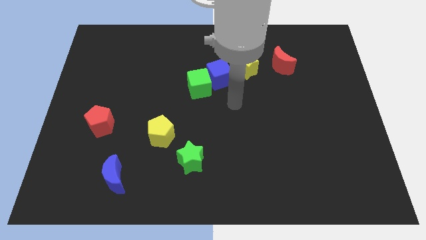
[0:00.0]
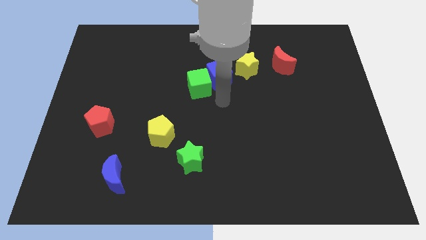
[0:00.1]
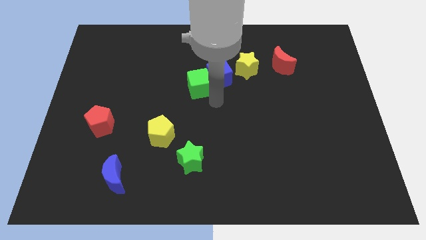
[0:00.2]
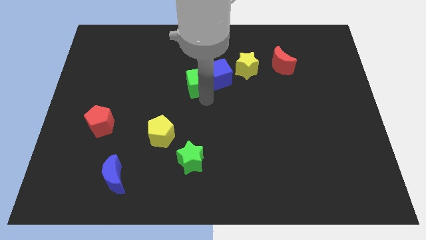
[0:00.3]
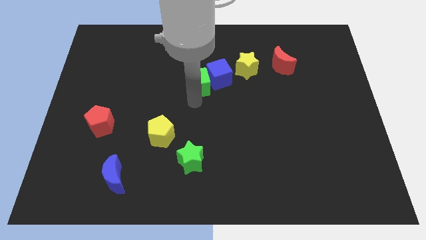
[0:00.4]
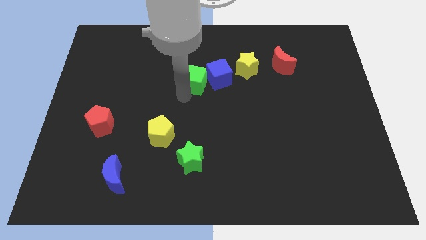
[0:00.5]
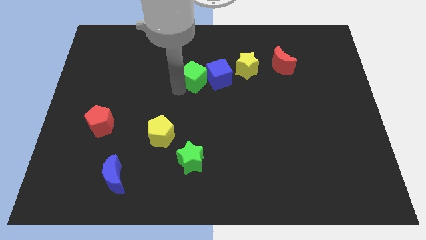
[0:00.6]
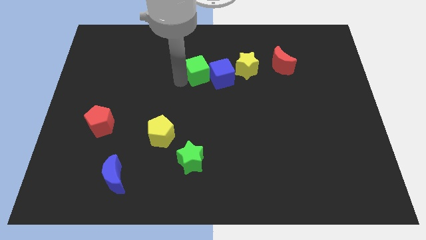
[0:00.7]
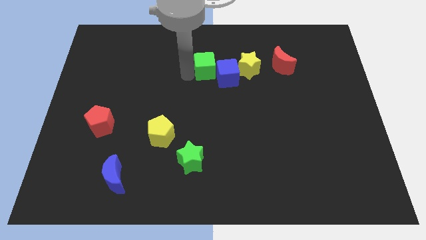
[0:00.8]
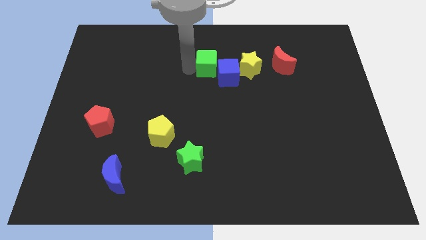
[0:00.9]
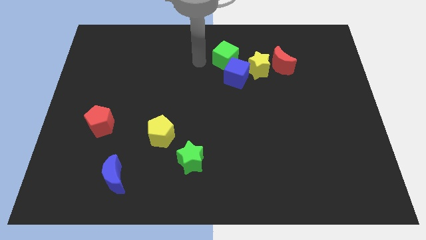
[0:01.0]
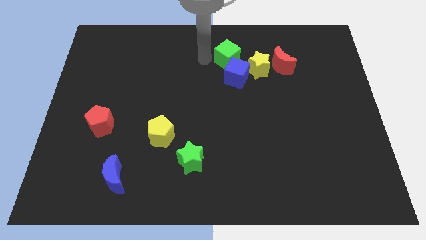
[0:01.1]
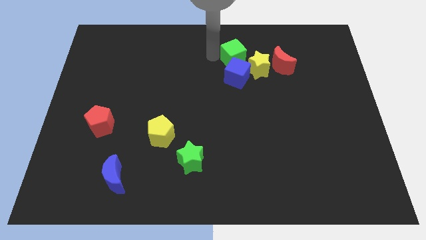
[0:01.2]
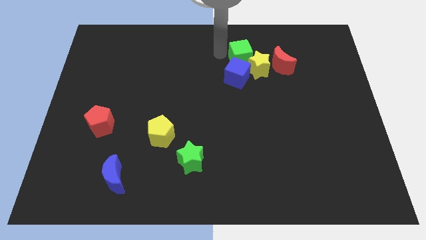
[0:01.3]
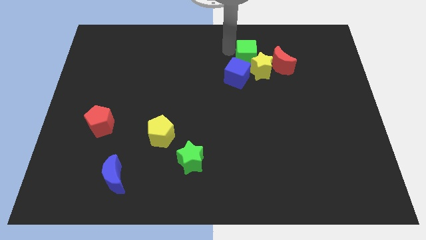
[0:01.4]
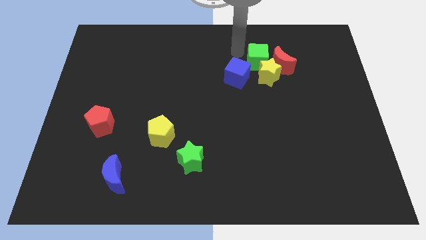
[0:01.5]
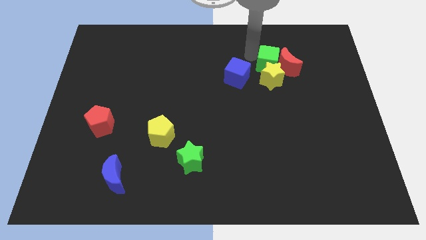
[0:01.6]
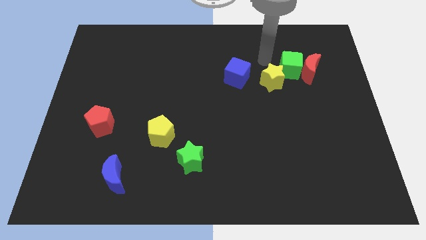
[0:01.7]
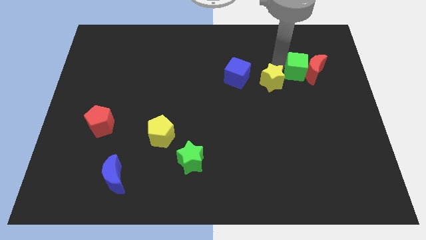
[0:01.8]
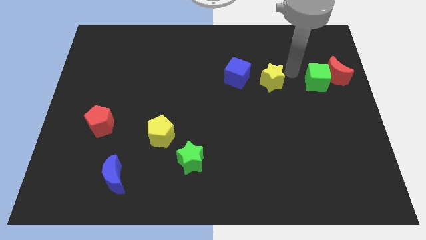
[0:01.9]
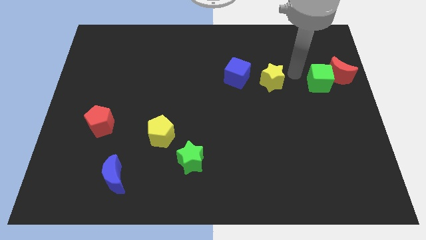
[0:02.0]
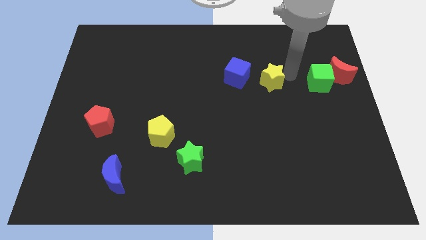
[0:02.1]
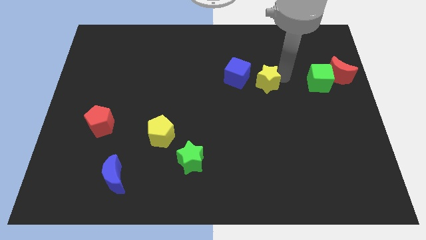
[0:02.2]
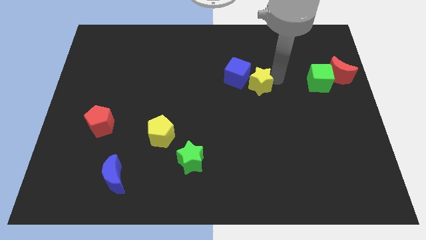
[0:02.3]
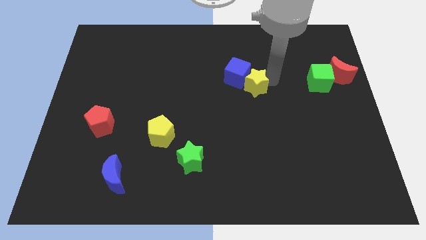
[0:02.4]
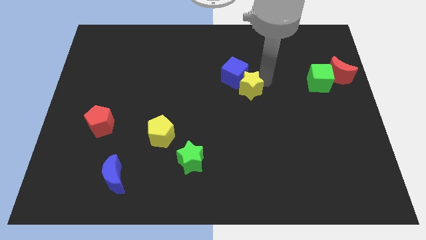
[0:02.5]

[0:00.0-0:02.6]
slightly move the yellow star down

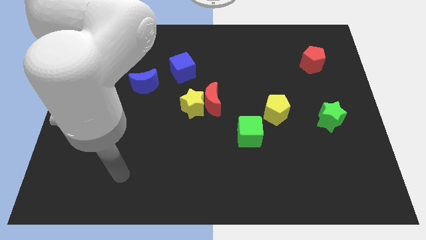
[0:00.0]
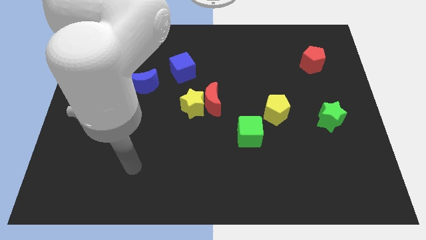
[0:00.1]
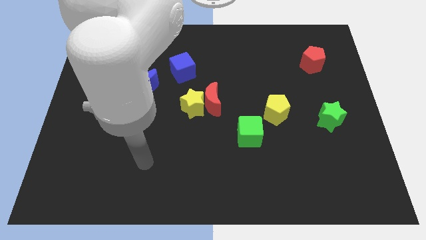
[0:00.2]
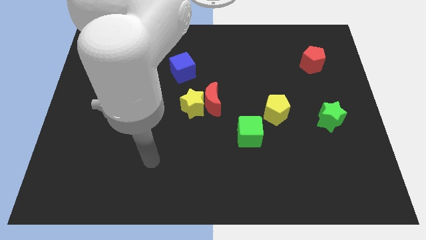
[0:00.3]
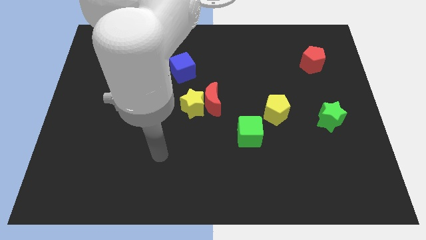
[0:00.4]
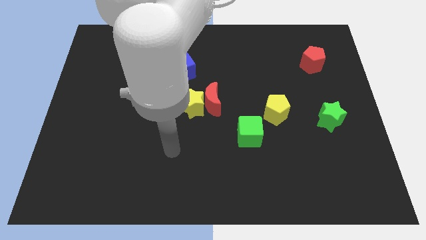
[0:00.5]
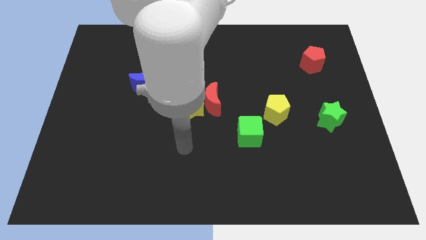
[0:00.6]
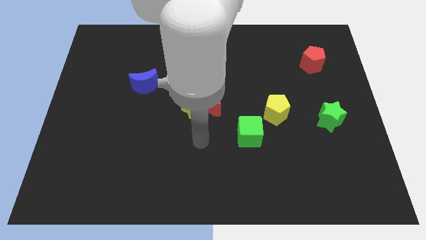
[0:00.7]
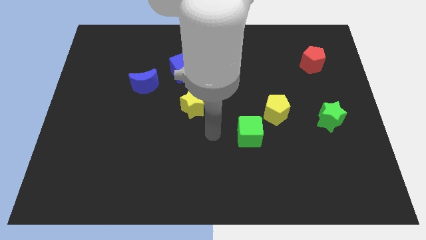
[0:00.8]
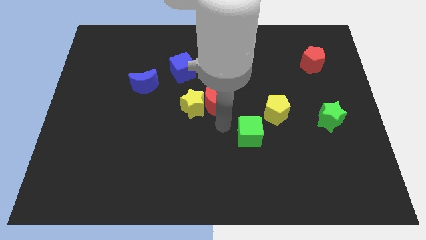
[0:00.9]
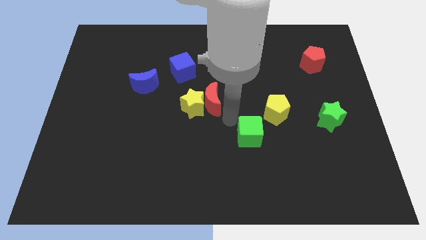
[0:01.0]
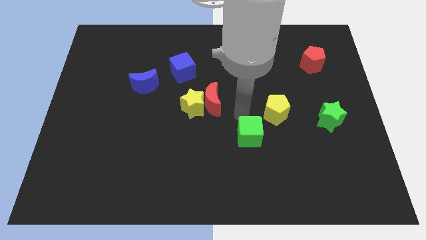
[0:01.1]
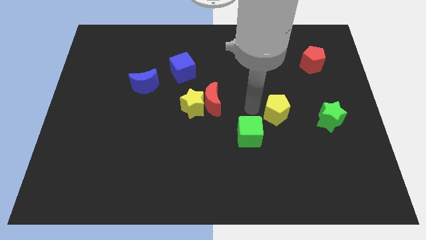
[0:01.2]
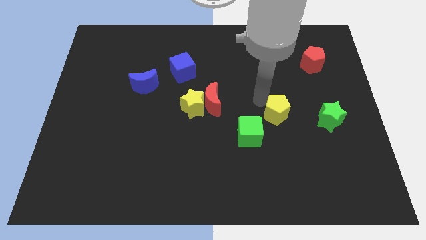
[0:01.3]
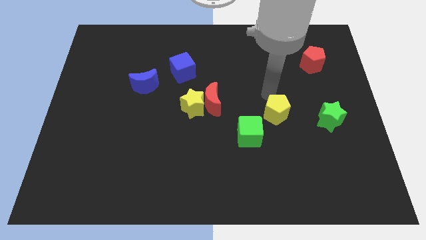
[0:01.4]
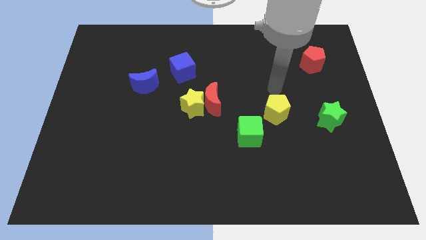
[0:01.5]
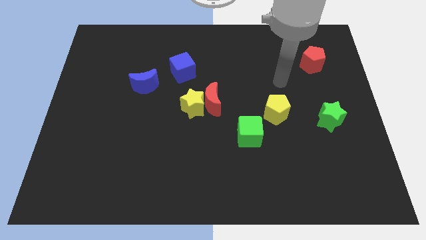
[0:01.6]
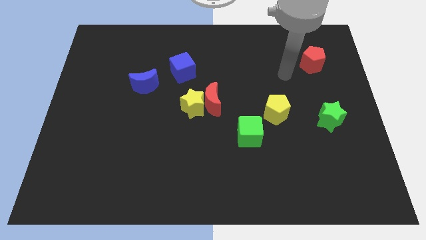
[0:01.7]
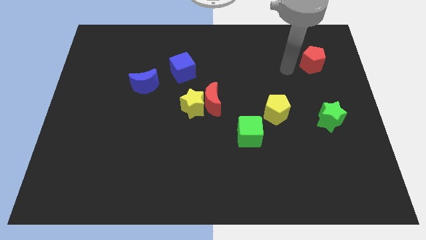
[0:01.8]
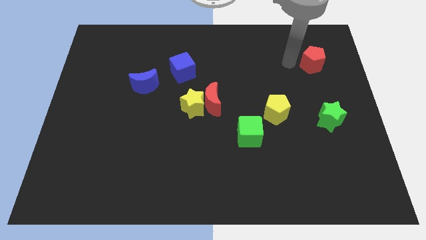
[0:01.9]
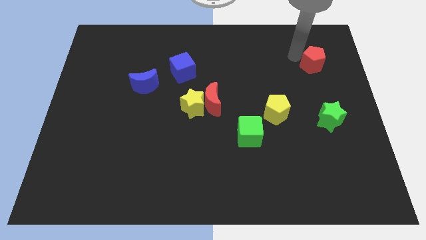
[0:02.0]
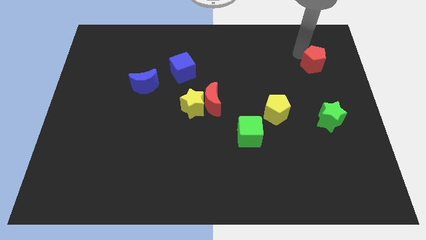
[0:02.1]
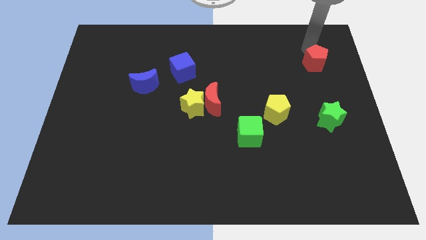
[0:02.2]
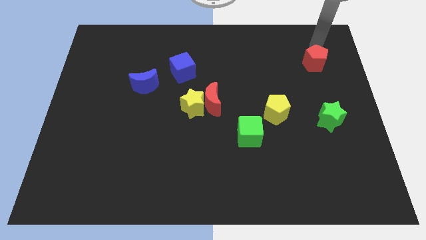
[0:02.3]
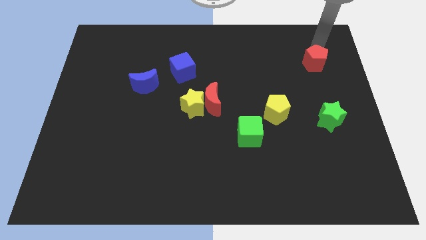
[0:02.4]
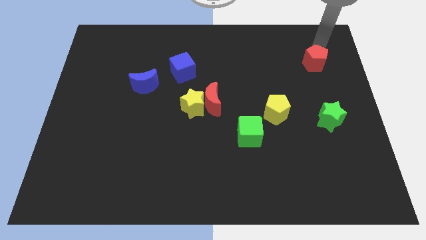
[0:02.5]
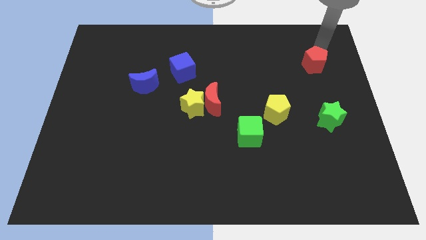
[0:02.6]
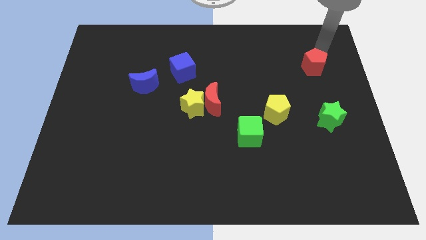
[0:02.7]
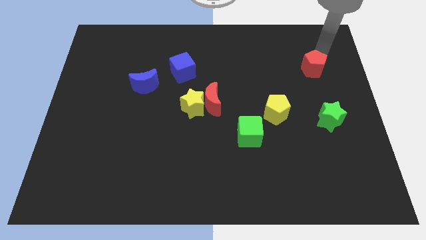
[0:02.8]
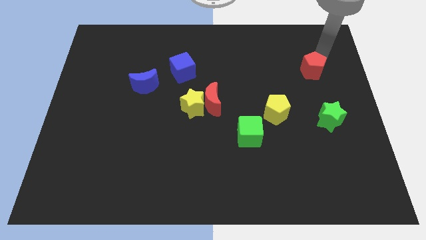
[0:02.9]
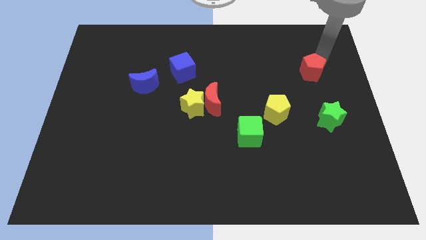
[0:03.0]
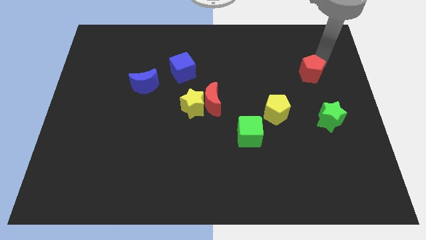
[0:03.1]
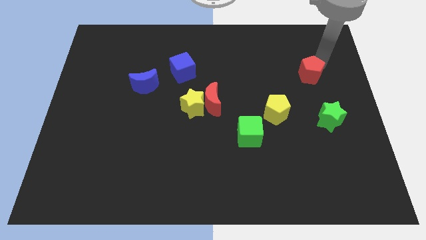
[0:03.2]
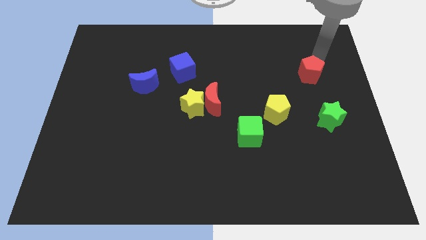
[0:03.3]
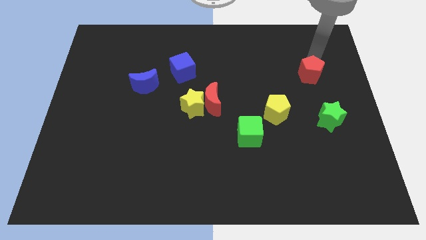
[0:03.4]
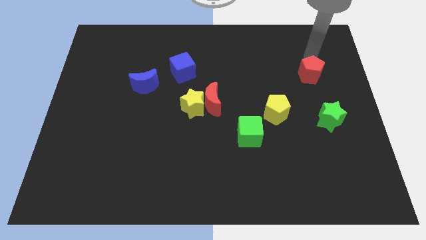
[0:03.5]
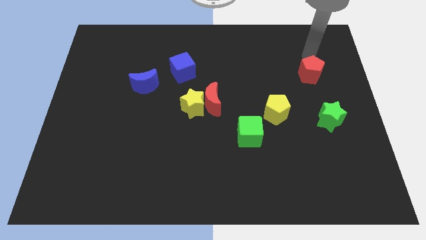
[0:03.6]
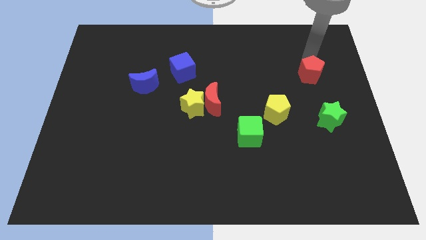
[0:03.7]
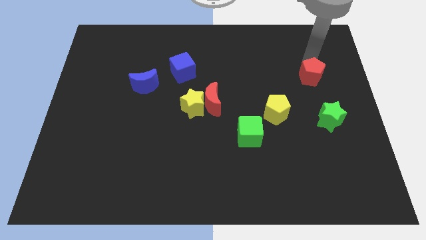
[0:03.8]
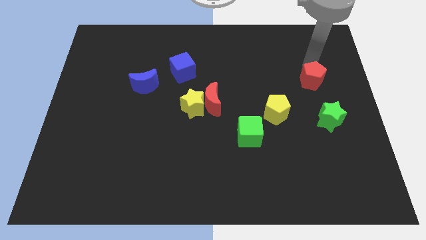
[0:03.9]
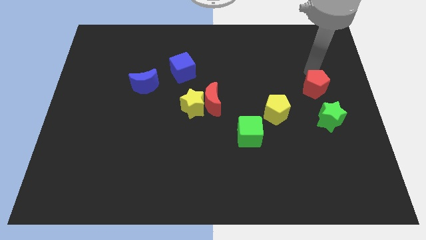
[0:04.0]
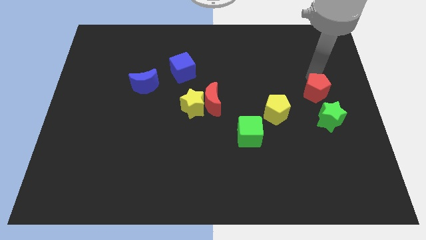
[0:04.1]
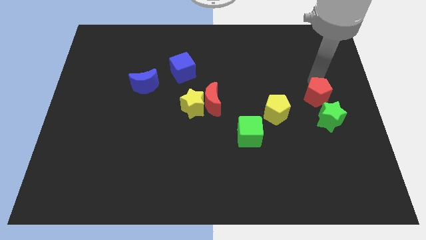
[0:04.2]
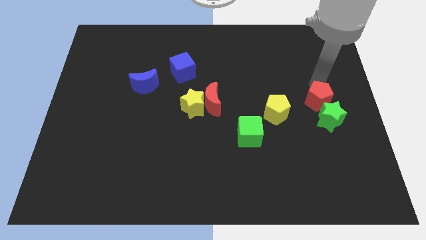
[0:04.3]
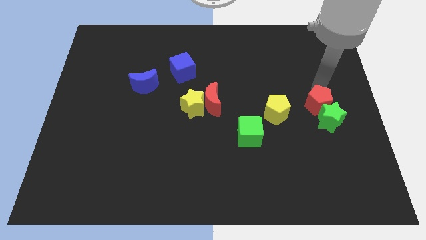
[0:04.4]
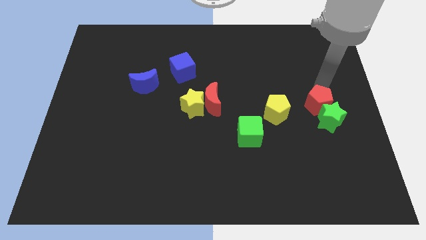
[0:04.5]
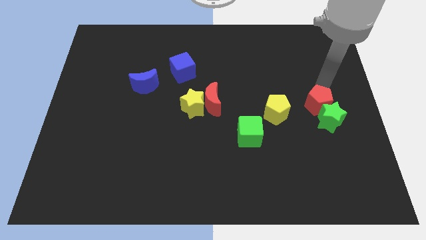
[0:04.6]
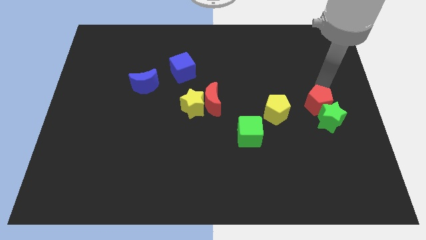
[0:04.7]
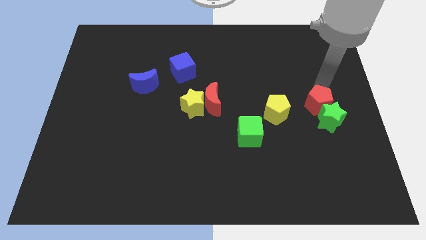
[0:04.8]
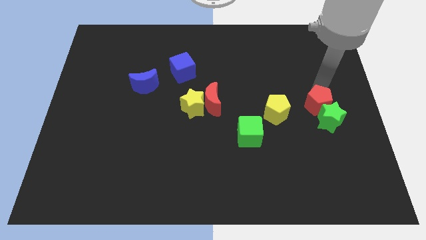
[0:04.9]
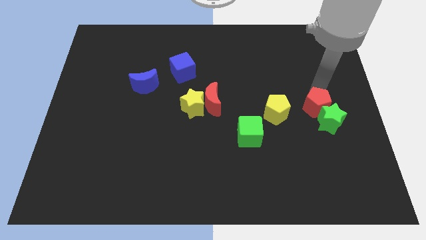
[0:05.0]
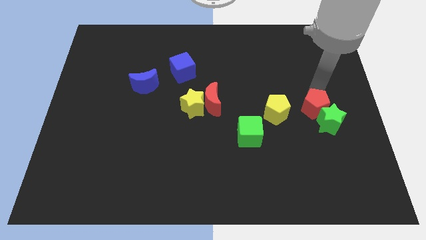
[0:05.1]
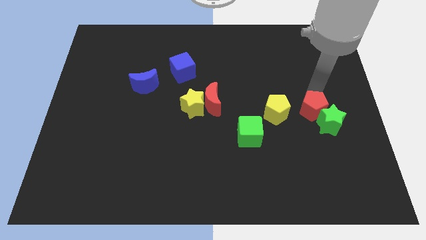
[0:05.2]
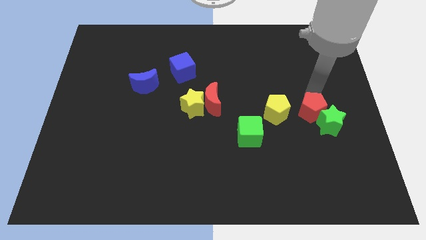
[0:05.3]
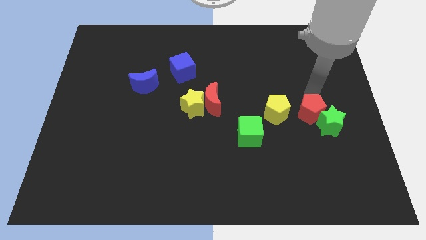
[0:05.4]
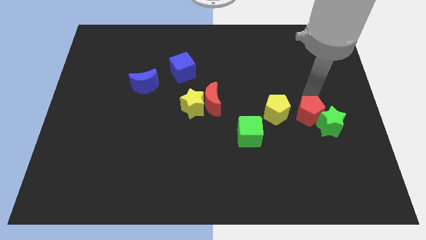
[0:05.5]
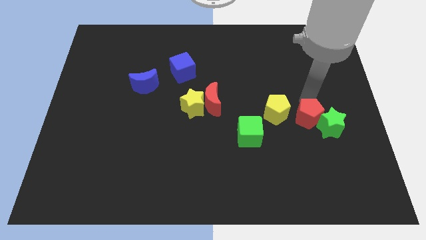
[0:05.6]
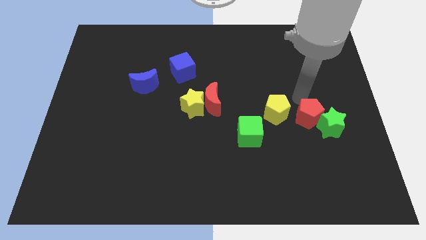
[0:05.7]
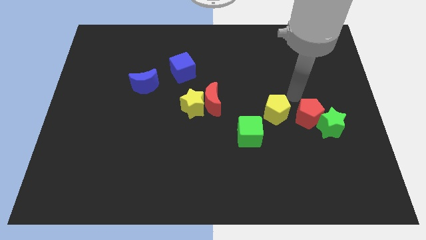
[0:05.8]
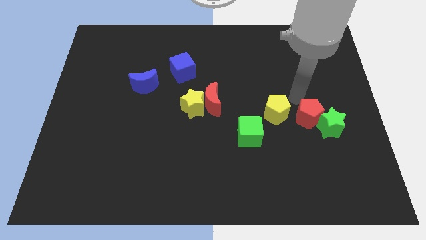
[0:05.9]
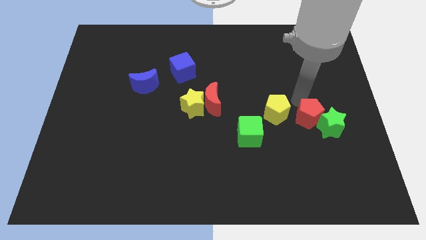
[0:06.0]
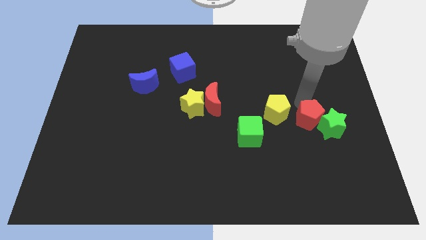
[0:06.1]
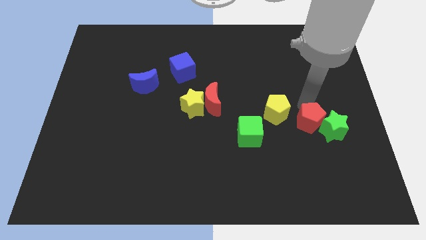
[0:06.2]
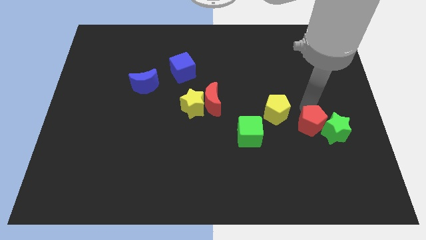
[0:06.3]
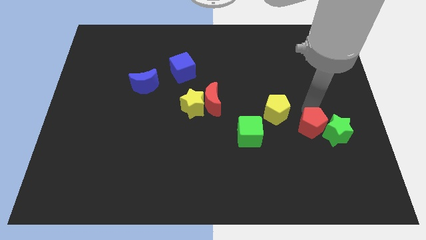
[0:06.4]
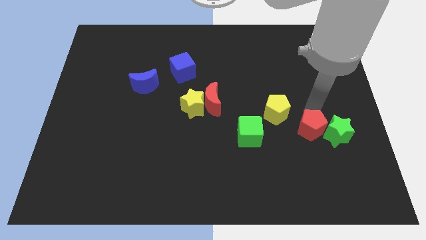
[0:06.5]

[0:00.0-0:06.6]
slide the red pentagon down
